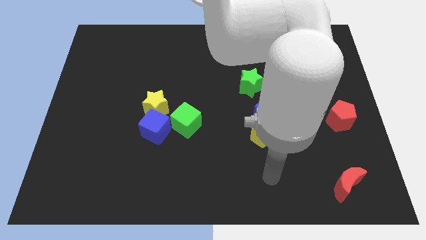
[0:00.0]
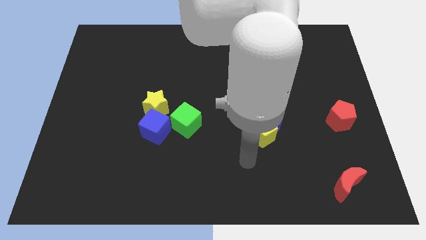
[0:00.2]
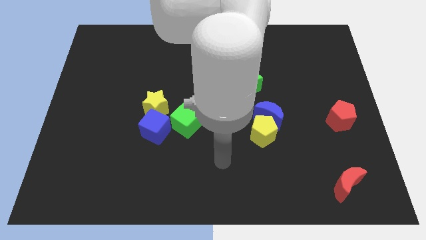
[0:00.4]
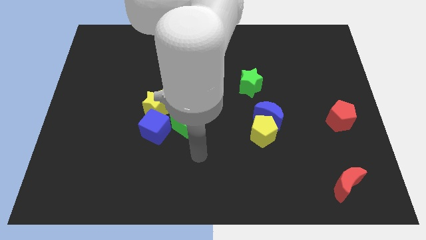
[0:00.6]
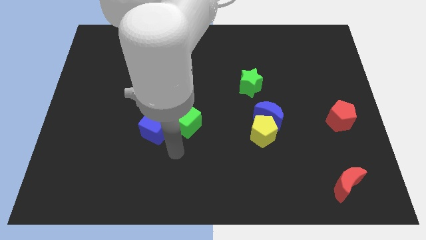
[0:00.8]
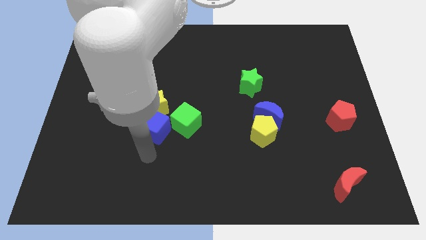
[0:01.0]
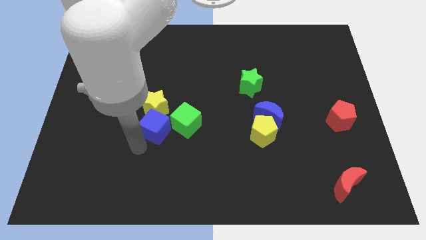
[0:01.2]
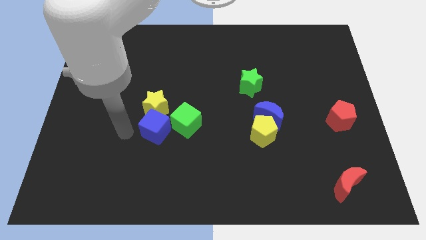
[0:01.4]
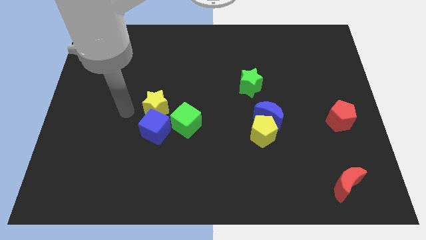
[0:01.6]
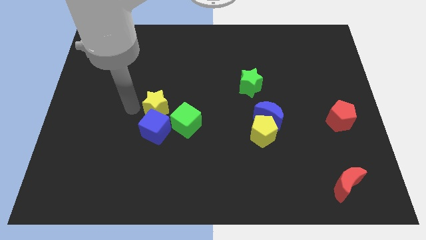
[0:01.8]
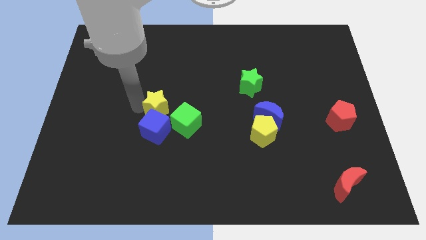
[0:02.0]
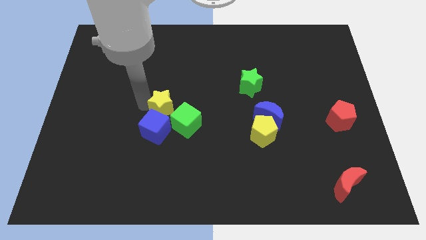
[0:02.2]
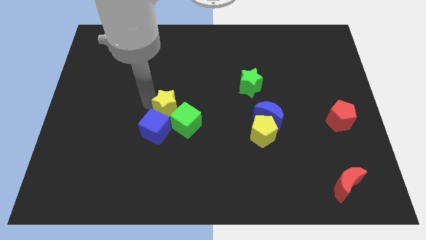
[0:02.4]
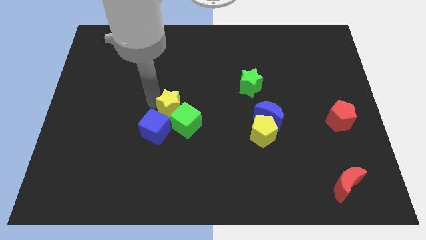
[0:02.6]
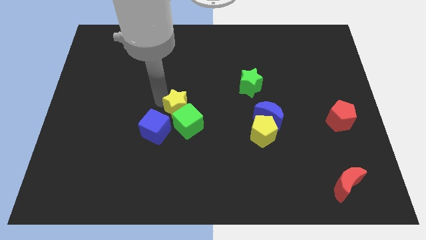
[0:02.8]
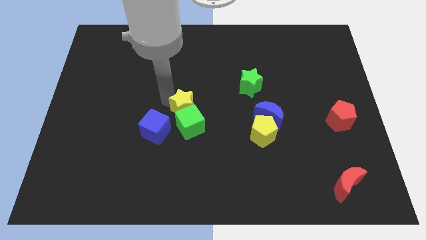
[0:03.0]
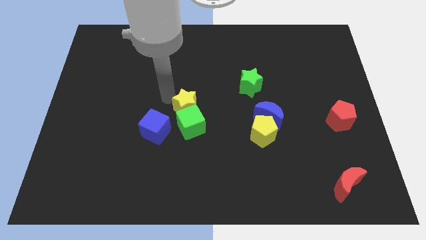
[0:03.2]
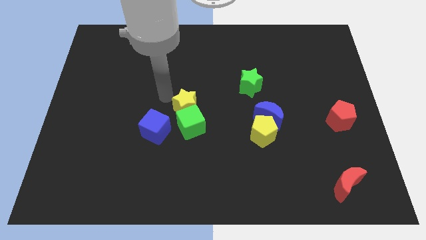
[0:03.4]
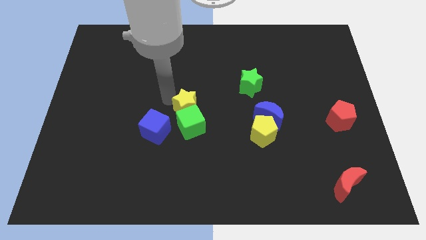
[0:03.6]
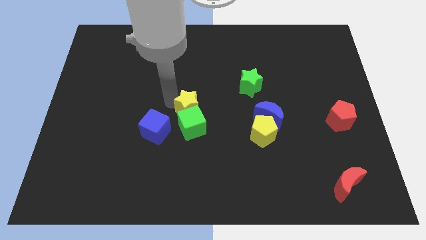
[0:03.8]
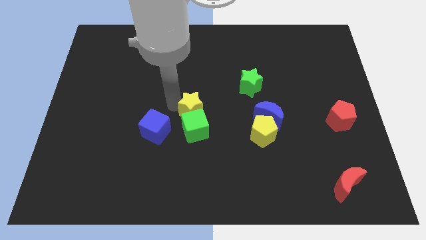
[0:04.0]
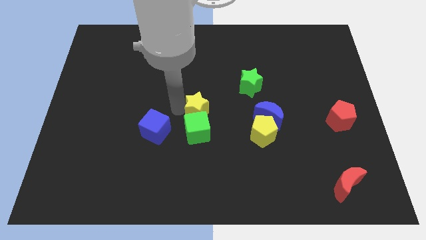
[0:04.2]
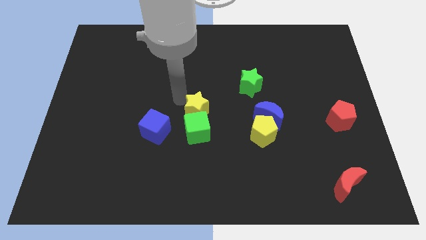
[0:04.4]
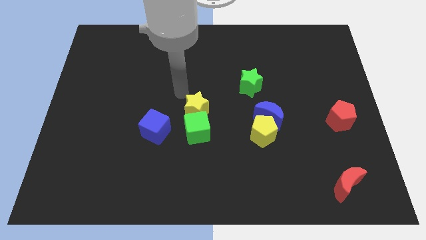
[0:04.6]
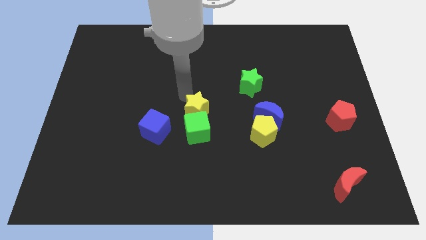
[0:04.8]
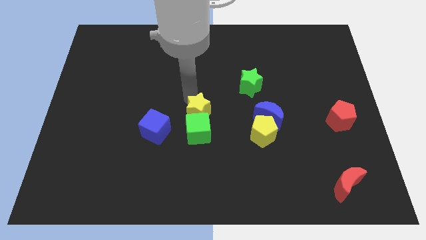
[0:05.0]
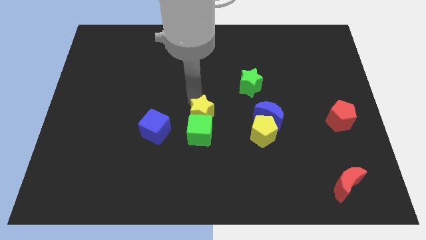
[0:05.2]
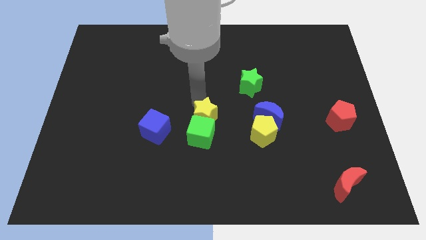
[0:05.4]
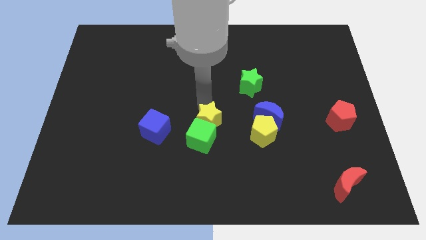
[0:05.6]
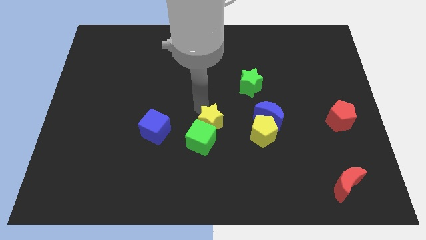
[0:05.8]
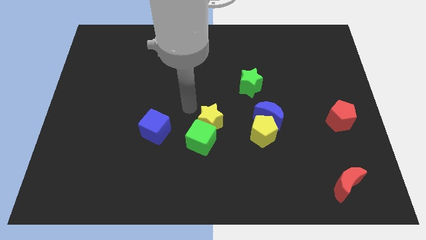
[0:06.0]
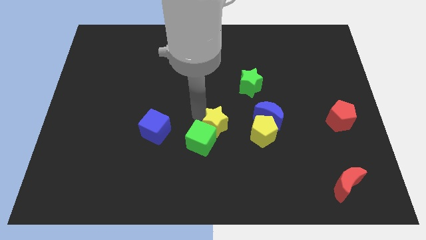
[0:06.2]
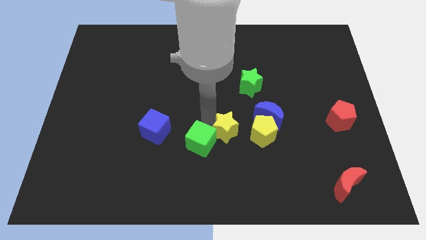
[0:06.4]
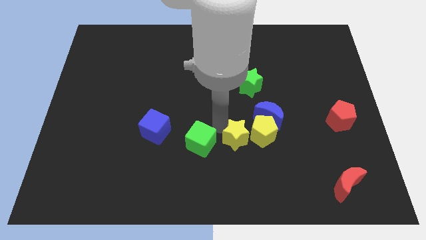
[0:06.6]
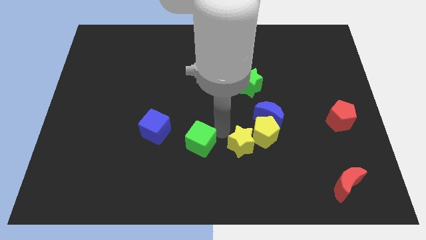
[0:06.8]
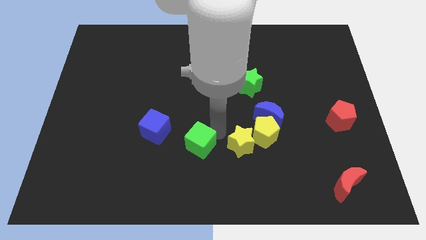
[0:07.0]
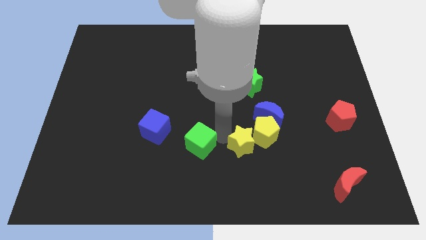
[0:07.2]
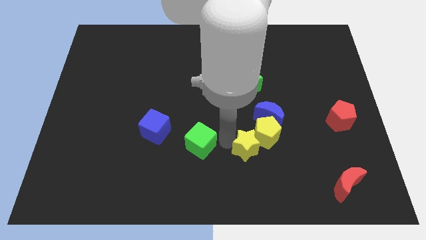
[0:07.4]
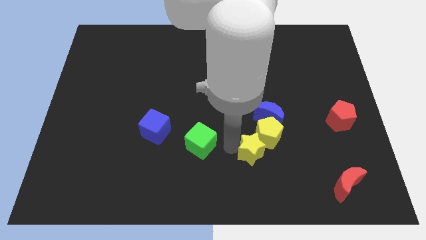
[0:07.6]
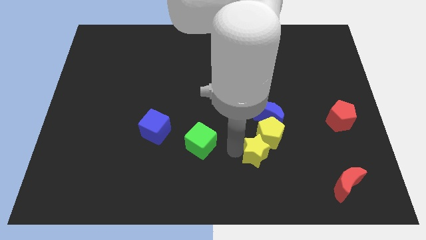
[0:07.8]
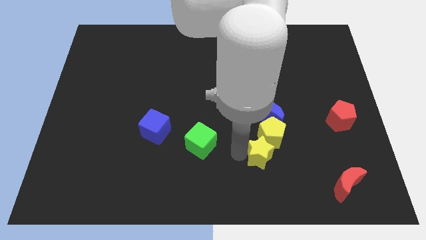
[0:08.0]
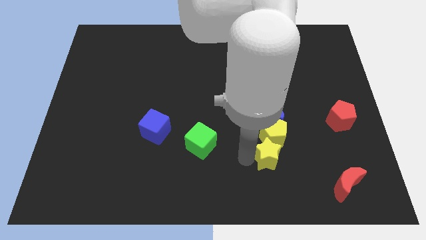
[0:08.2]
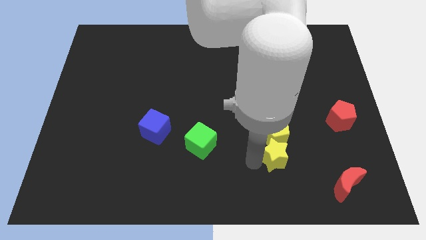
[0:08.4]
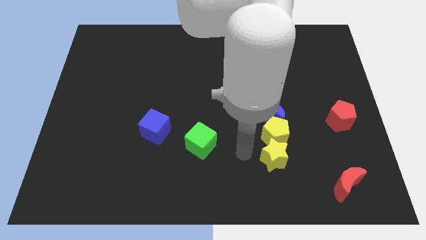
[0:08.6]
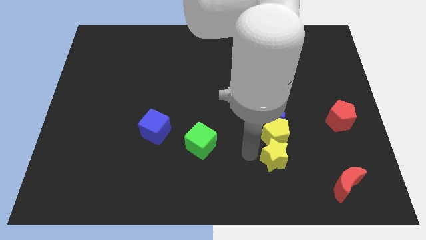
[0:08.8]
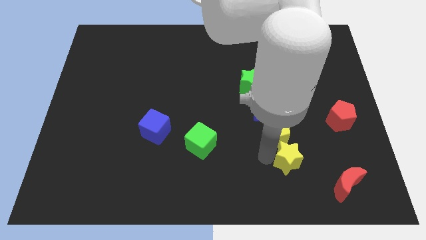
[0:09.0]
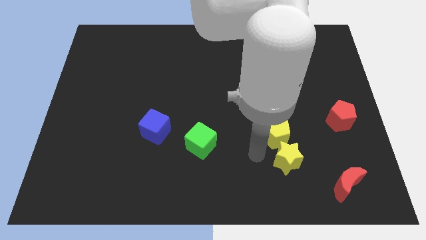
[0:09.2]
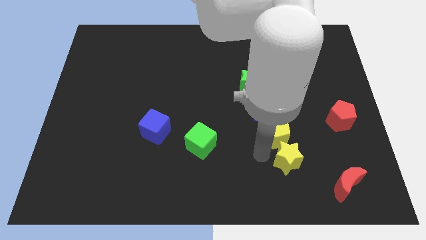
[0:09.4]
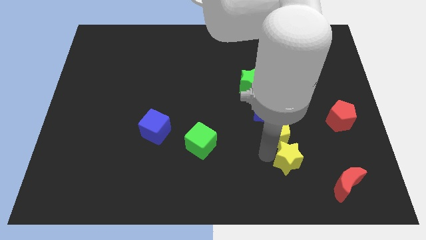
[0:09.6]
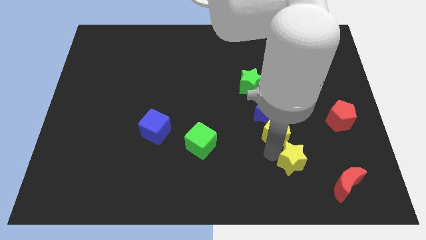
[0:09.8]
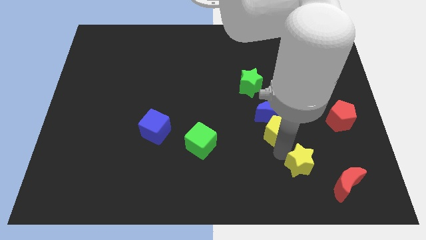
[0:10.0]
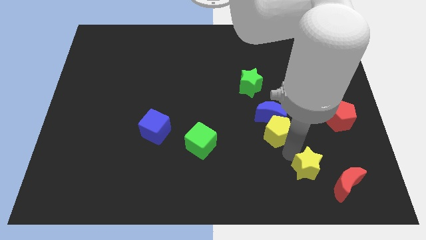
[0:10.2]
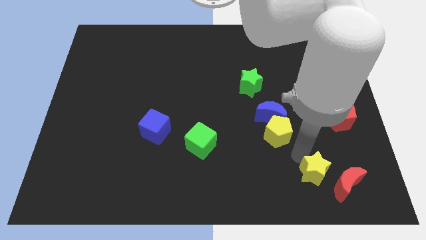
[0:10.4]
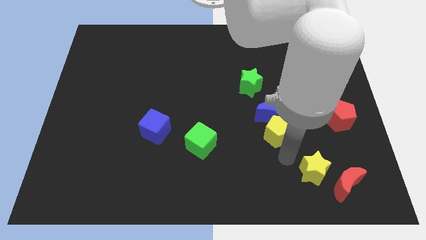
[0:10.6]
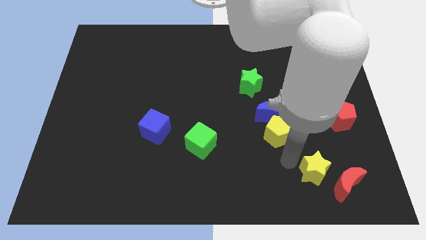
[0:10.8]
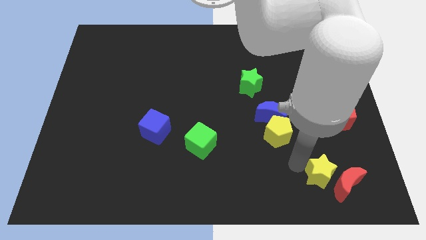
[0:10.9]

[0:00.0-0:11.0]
slide the yellow star towards the red moon

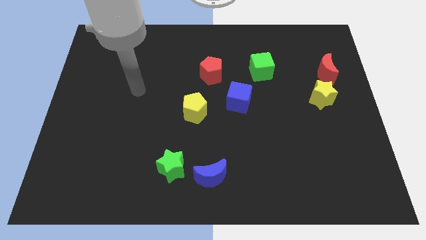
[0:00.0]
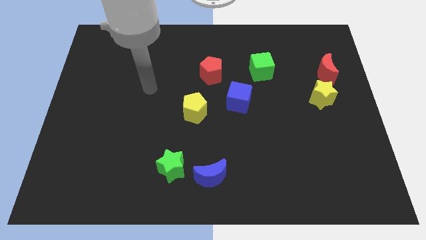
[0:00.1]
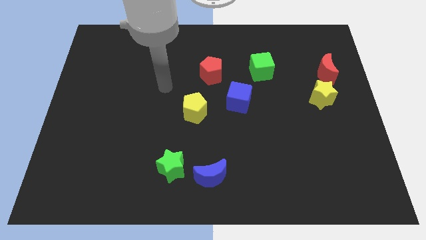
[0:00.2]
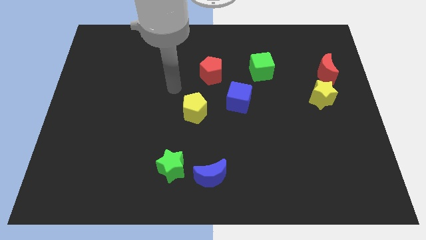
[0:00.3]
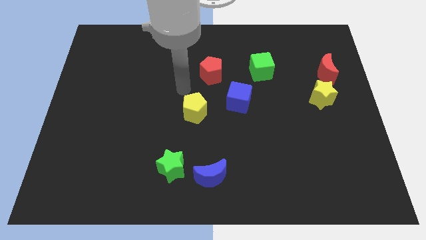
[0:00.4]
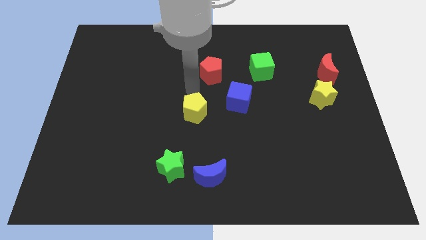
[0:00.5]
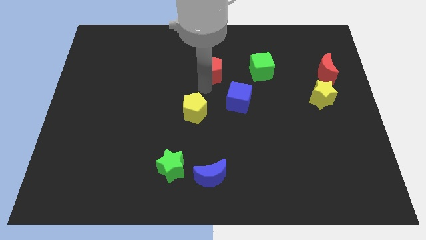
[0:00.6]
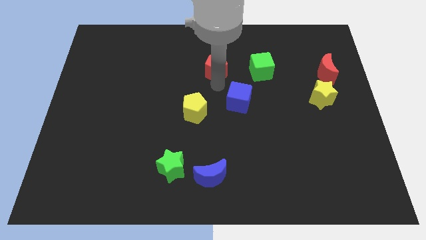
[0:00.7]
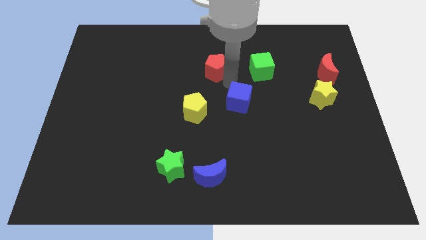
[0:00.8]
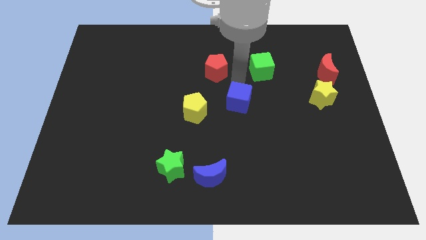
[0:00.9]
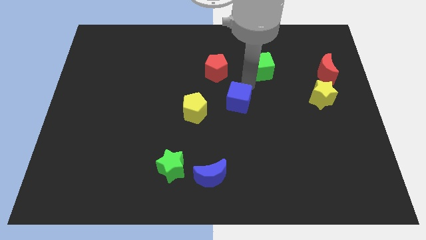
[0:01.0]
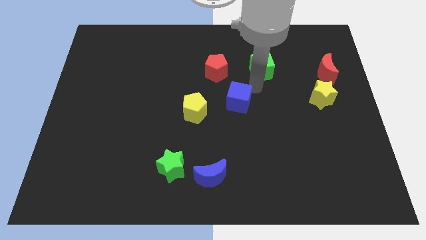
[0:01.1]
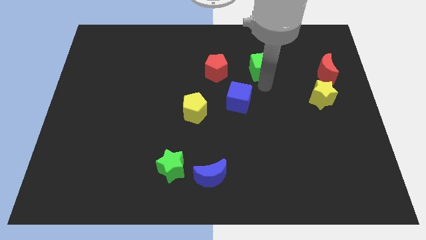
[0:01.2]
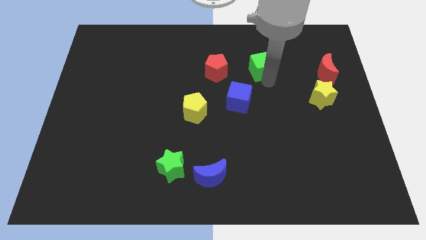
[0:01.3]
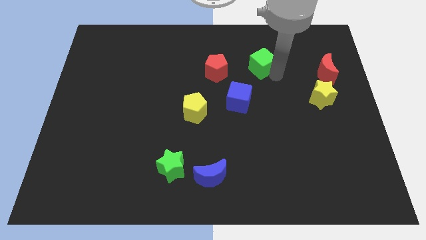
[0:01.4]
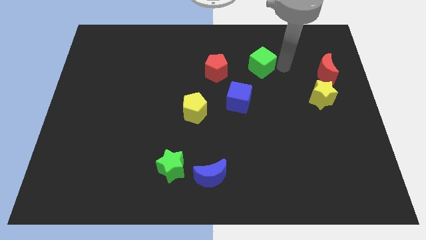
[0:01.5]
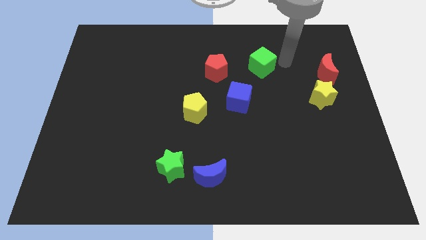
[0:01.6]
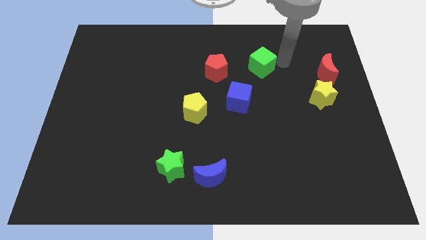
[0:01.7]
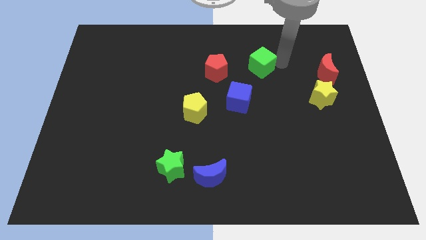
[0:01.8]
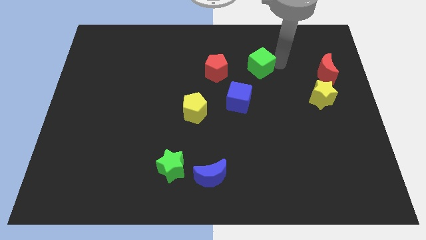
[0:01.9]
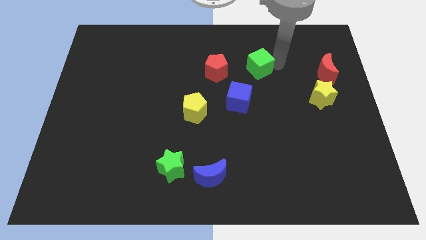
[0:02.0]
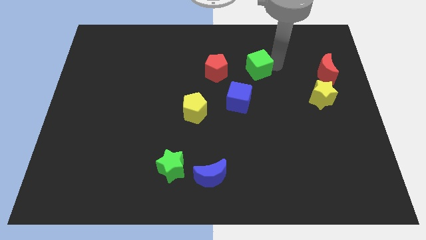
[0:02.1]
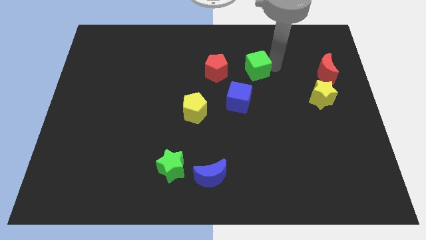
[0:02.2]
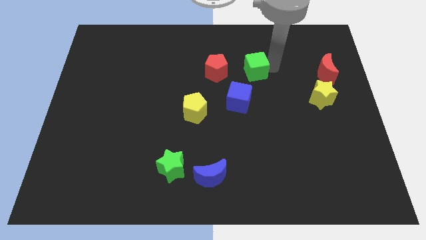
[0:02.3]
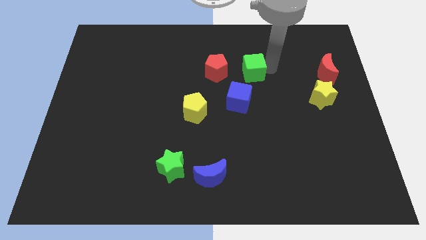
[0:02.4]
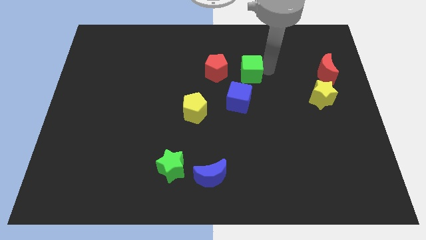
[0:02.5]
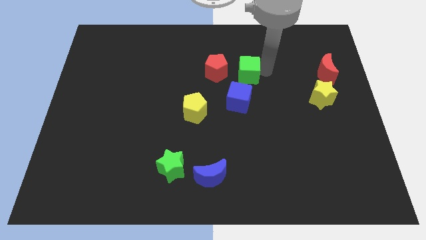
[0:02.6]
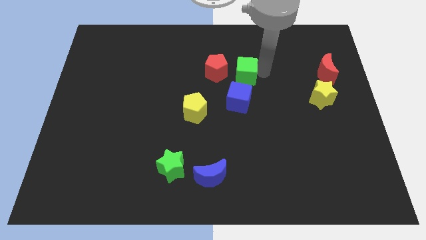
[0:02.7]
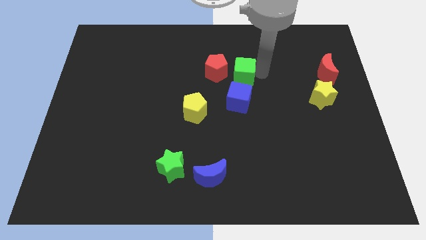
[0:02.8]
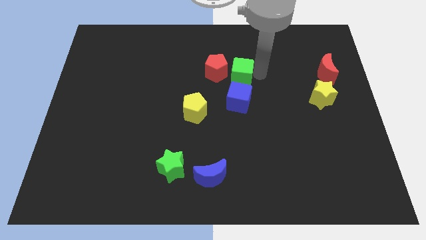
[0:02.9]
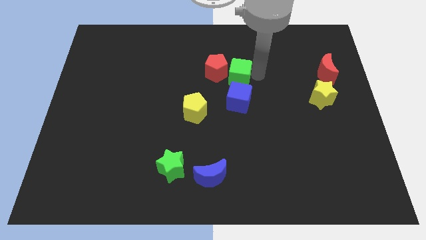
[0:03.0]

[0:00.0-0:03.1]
slide the green cube to the red pentagon
